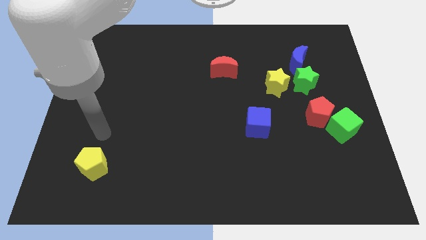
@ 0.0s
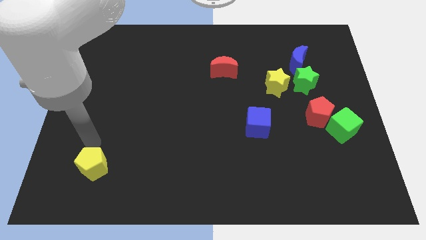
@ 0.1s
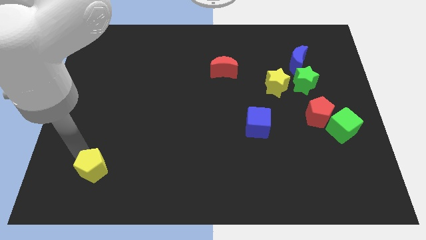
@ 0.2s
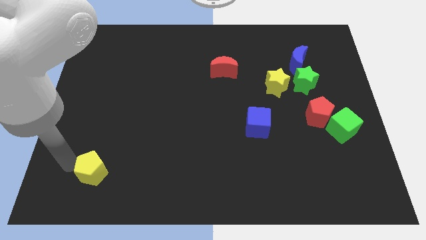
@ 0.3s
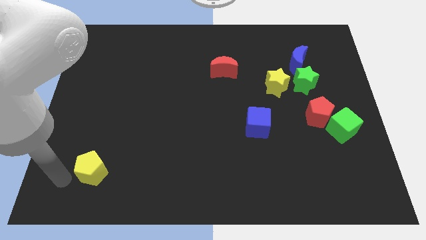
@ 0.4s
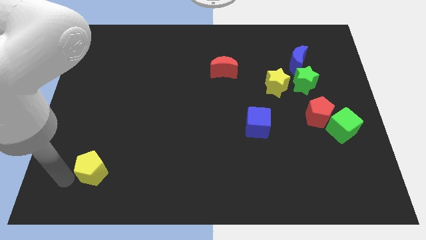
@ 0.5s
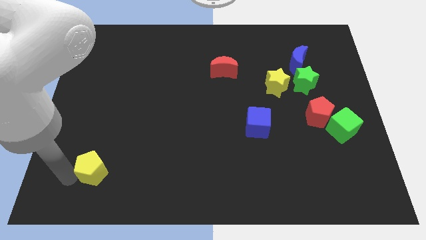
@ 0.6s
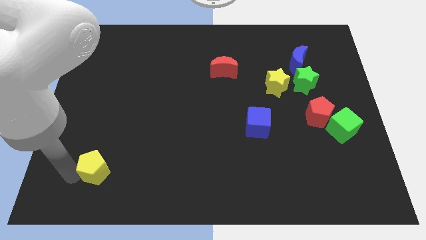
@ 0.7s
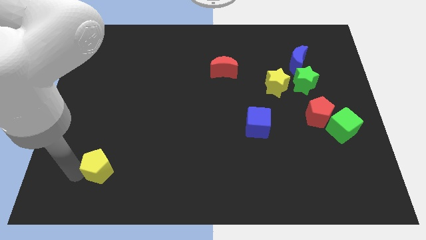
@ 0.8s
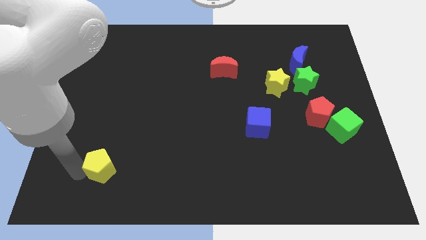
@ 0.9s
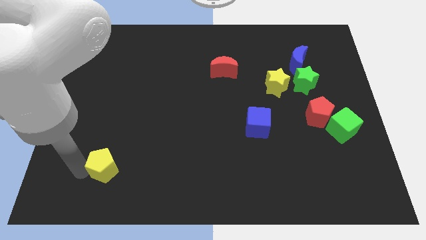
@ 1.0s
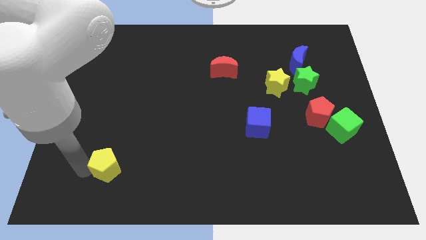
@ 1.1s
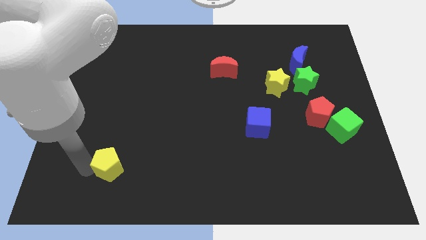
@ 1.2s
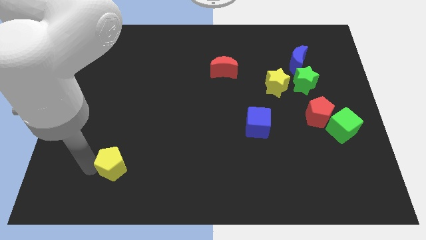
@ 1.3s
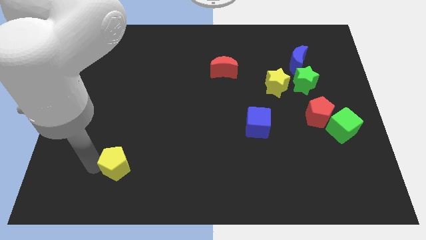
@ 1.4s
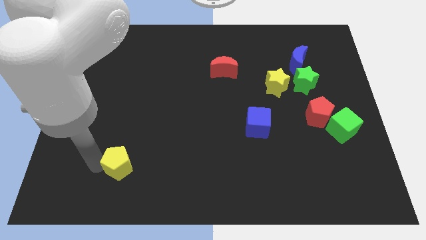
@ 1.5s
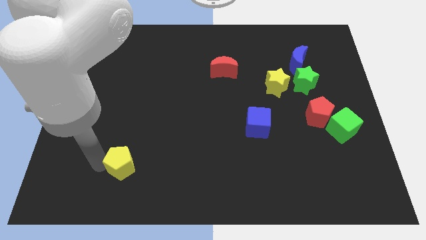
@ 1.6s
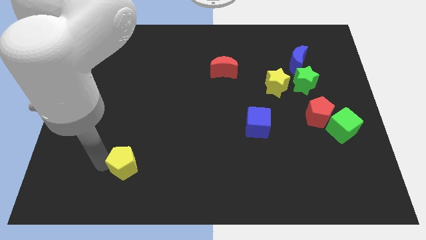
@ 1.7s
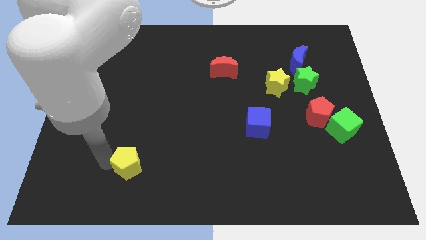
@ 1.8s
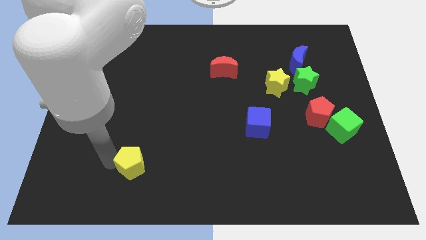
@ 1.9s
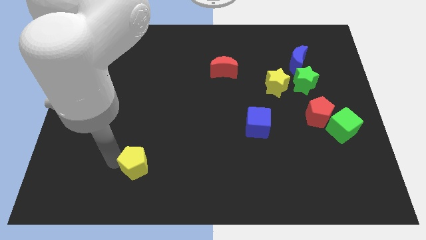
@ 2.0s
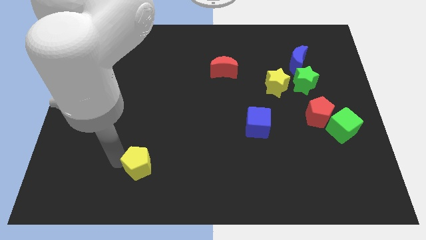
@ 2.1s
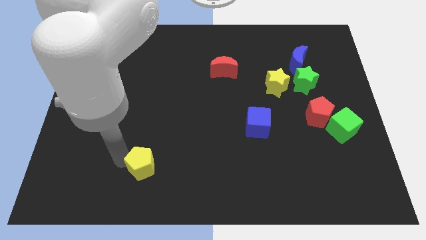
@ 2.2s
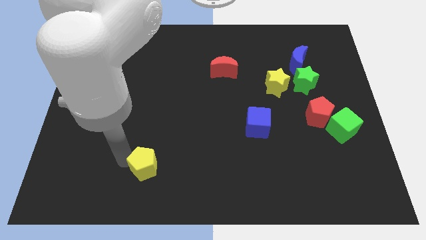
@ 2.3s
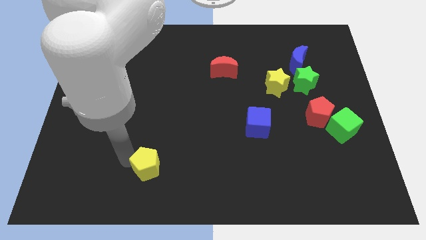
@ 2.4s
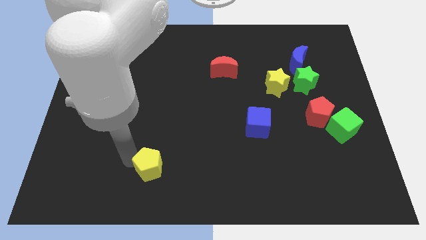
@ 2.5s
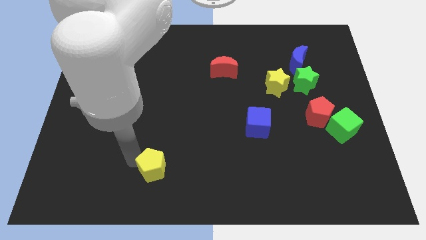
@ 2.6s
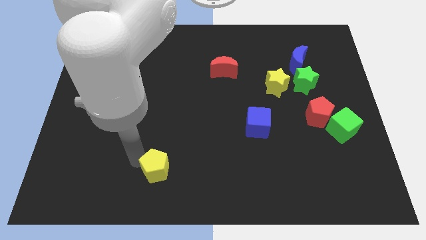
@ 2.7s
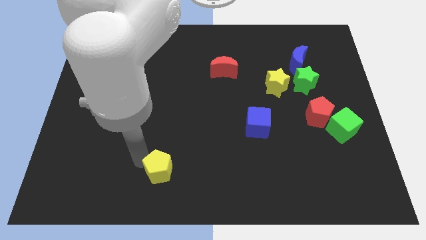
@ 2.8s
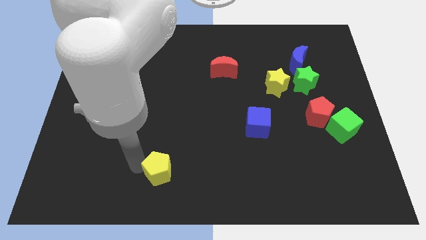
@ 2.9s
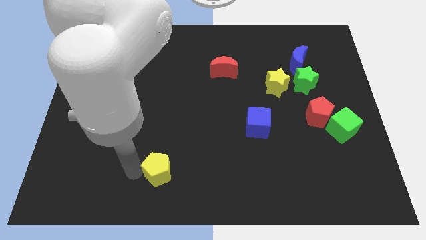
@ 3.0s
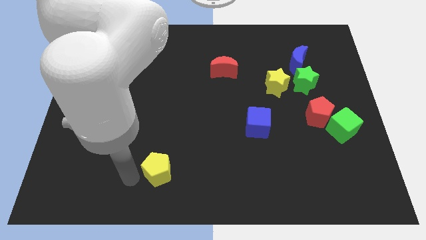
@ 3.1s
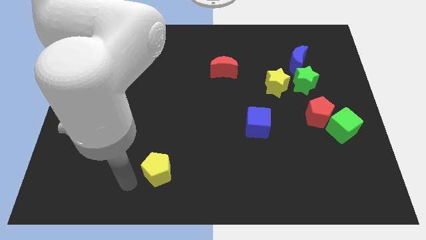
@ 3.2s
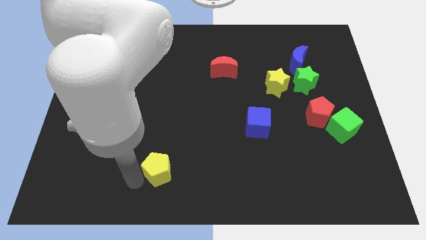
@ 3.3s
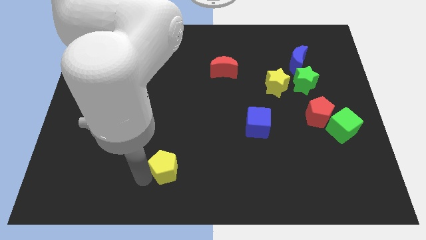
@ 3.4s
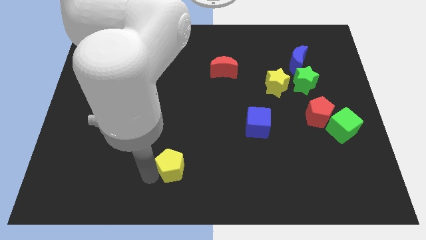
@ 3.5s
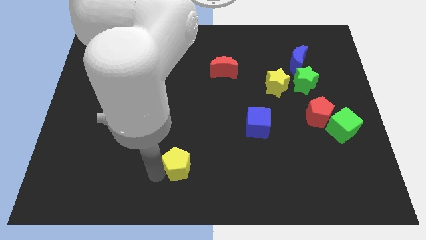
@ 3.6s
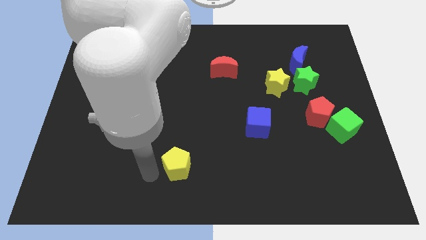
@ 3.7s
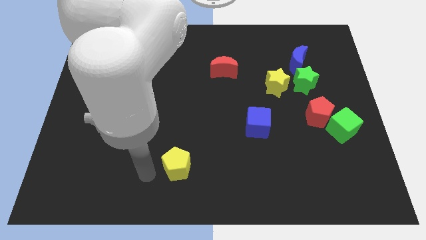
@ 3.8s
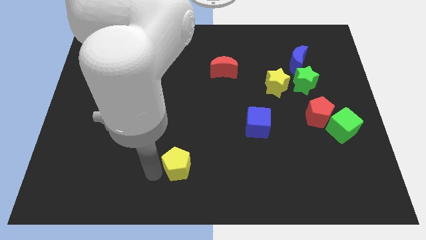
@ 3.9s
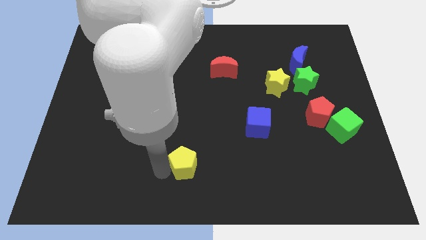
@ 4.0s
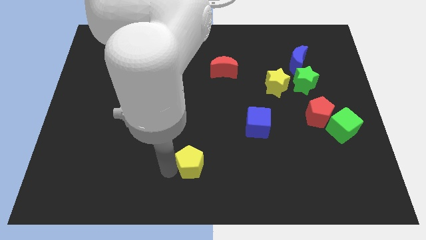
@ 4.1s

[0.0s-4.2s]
slide the yellow pentagon right

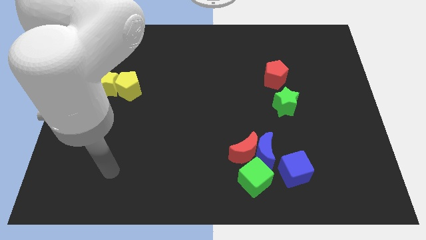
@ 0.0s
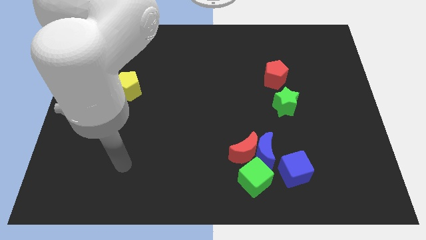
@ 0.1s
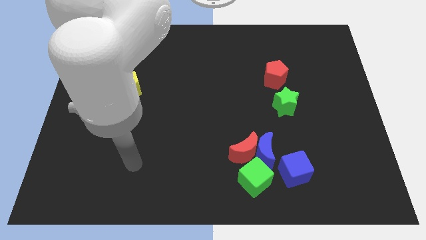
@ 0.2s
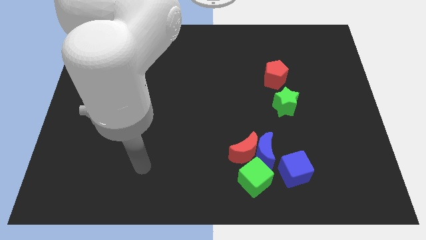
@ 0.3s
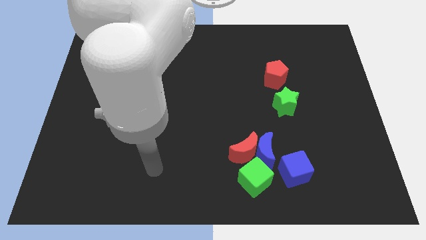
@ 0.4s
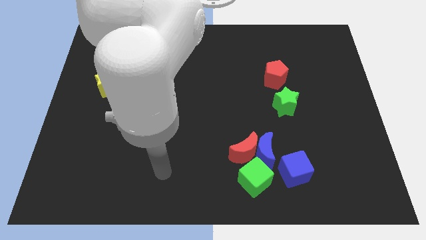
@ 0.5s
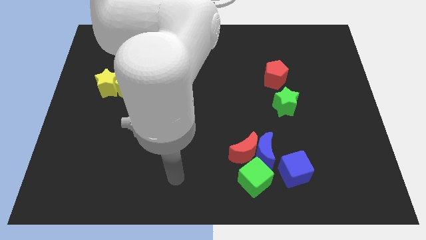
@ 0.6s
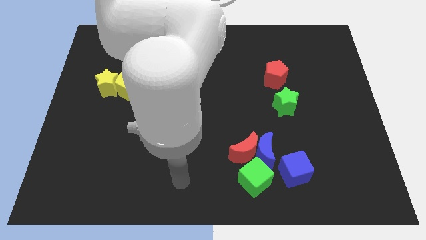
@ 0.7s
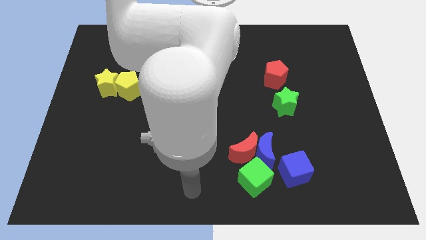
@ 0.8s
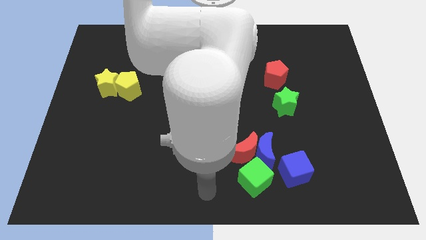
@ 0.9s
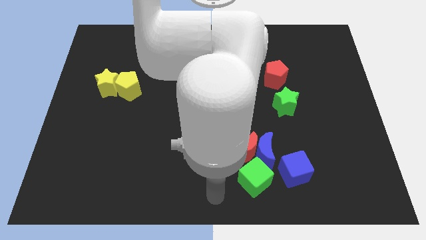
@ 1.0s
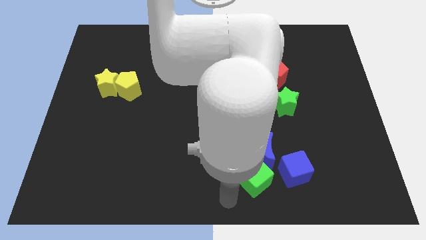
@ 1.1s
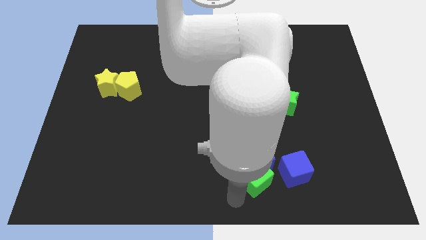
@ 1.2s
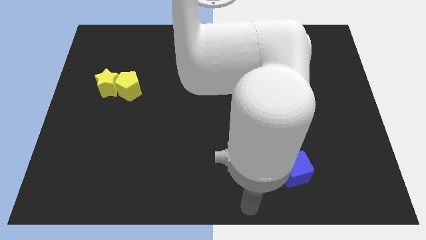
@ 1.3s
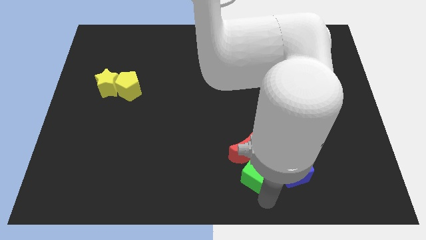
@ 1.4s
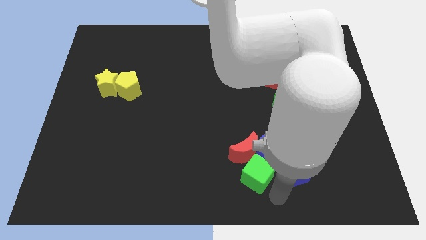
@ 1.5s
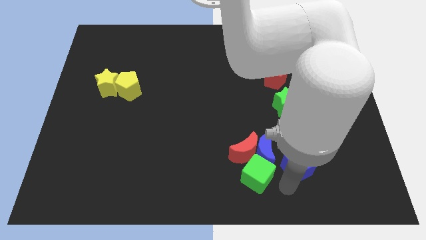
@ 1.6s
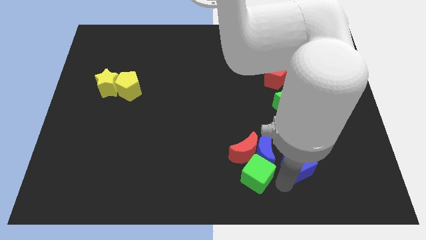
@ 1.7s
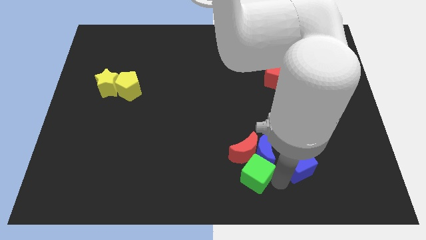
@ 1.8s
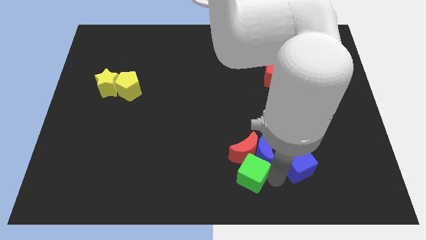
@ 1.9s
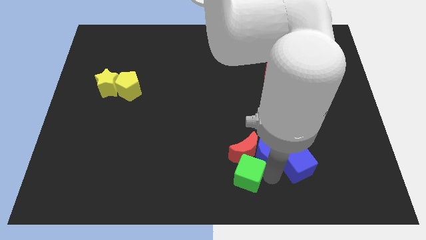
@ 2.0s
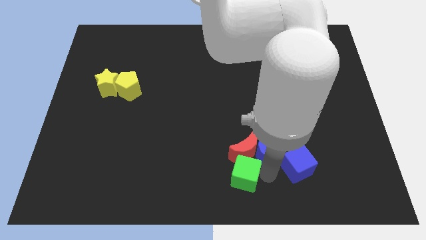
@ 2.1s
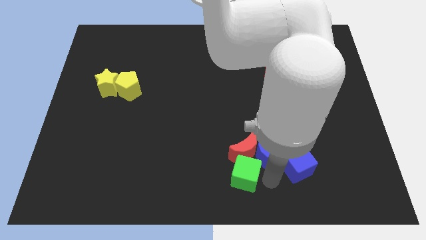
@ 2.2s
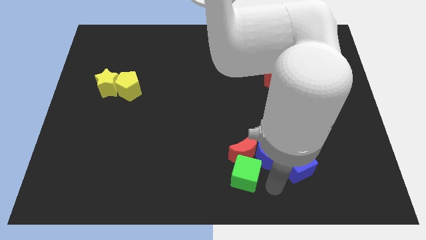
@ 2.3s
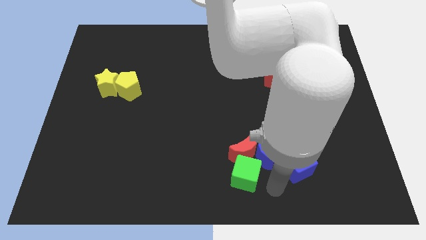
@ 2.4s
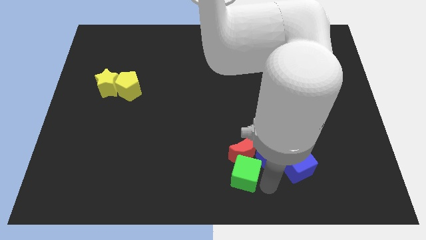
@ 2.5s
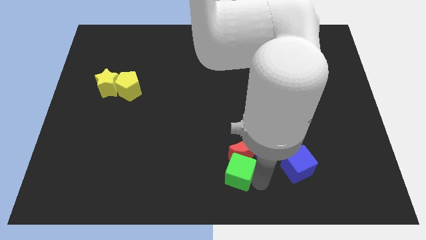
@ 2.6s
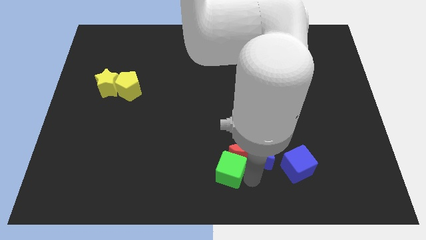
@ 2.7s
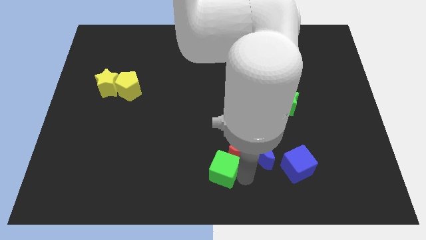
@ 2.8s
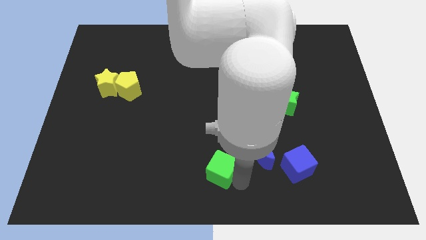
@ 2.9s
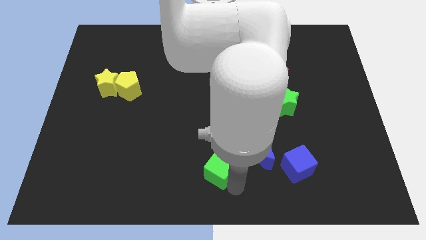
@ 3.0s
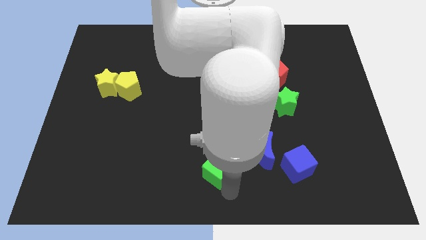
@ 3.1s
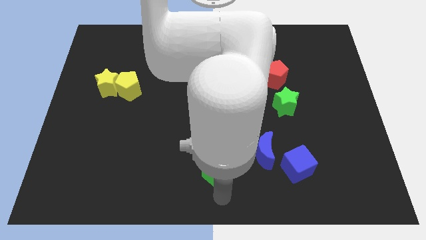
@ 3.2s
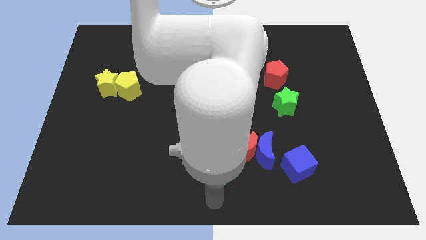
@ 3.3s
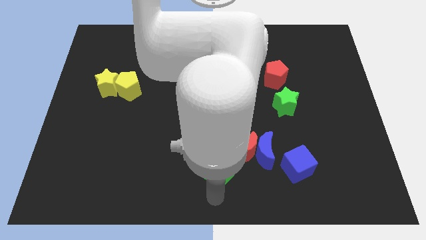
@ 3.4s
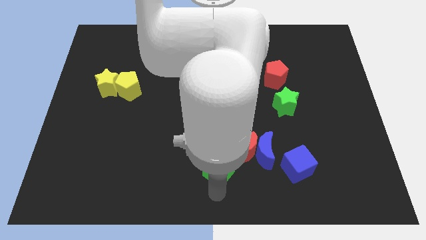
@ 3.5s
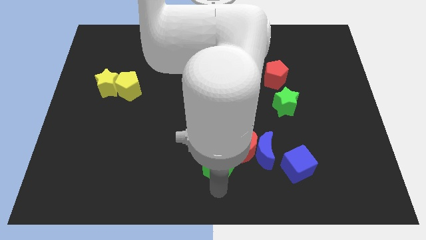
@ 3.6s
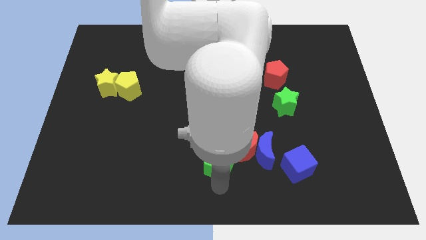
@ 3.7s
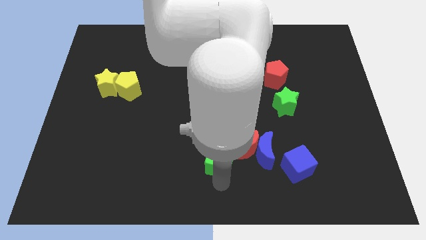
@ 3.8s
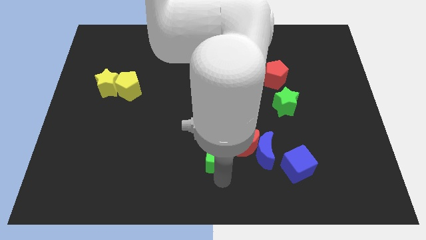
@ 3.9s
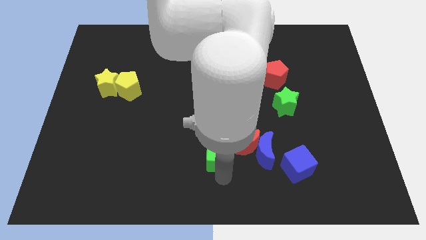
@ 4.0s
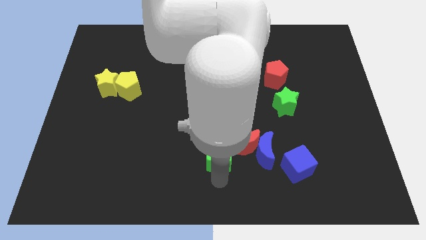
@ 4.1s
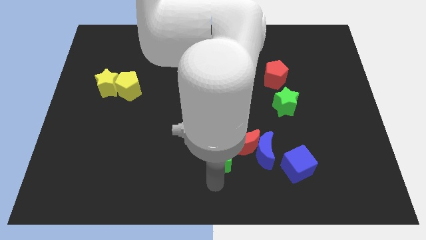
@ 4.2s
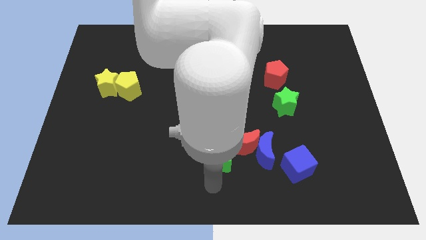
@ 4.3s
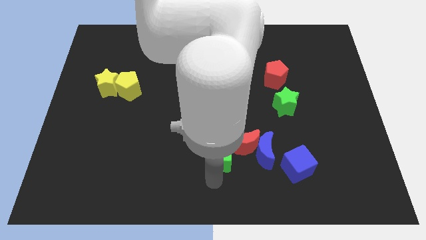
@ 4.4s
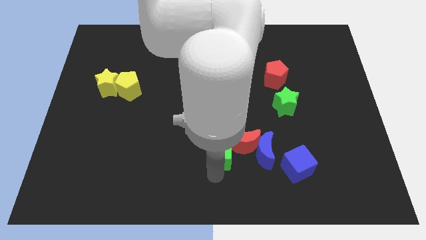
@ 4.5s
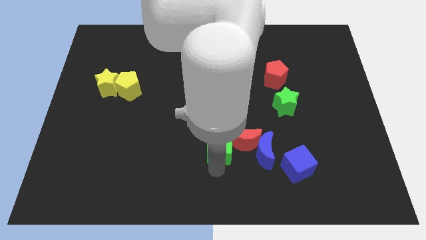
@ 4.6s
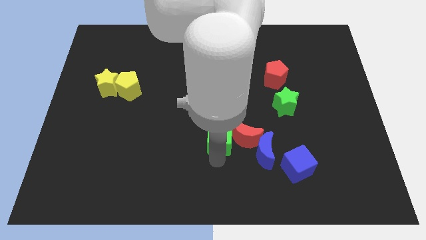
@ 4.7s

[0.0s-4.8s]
slightly slide the green cube upwards
